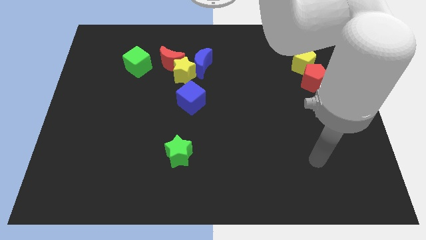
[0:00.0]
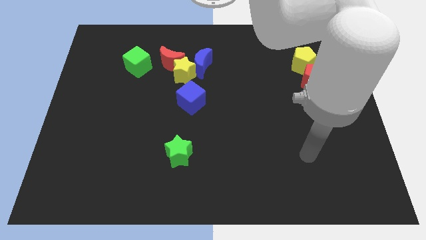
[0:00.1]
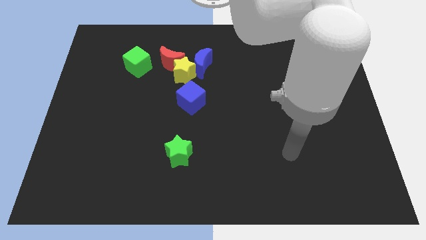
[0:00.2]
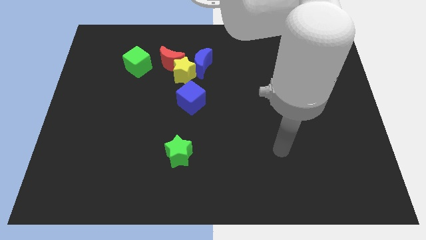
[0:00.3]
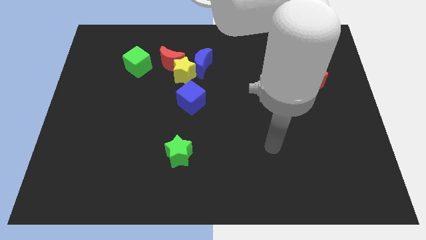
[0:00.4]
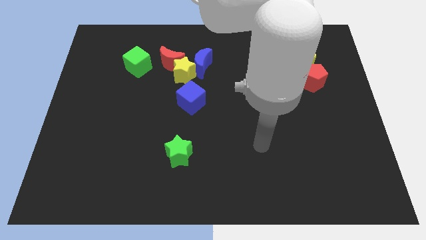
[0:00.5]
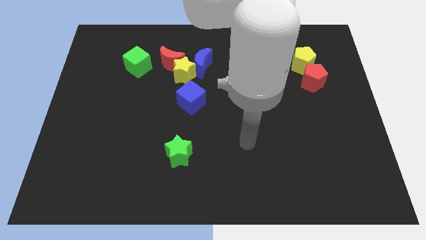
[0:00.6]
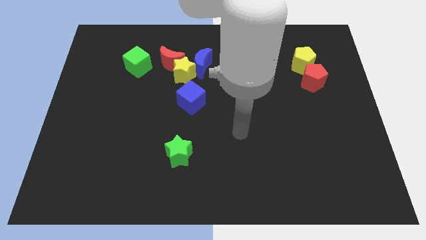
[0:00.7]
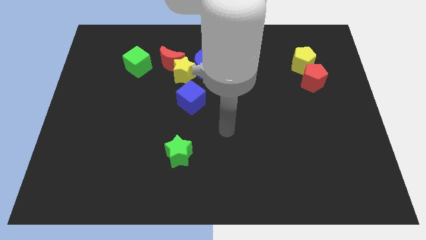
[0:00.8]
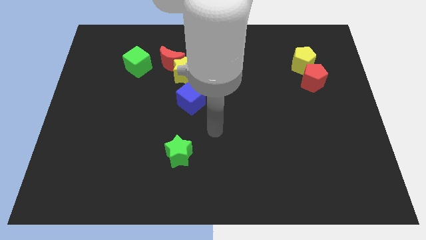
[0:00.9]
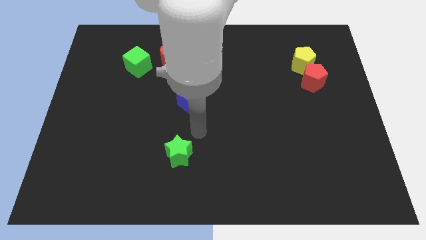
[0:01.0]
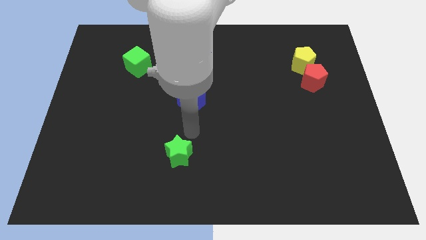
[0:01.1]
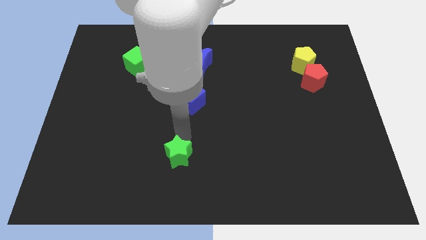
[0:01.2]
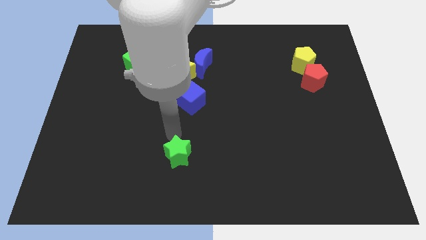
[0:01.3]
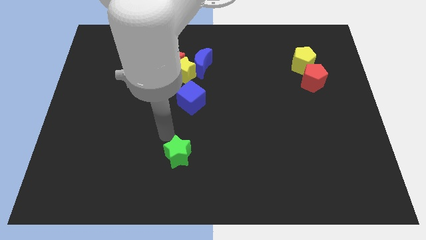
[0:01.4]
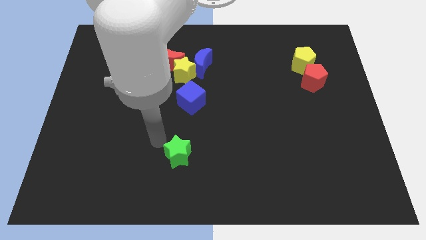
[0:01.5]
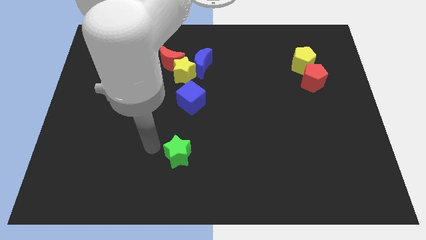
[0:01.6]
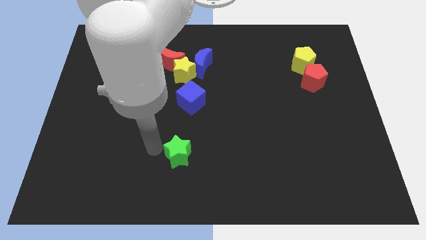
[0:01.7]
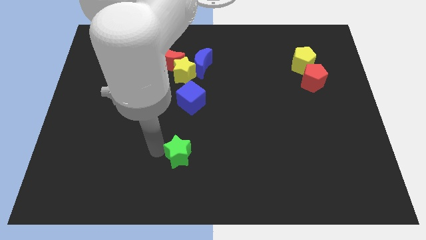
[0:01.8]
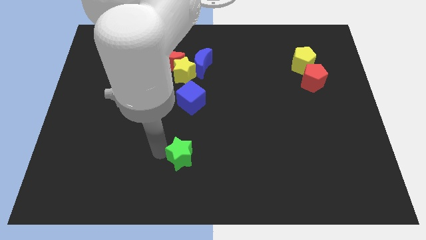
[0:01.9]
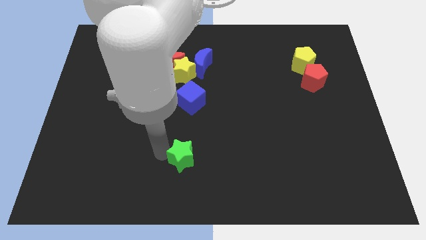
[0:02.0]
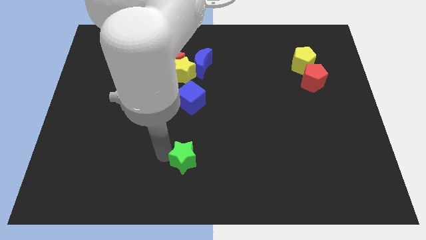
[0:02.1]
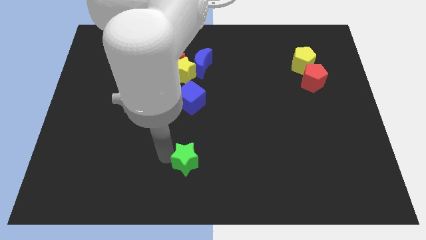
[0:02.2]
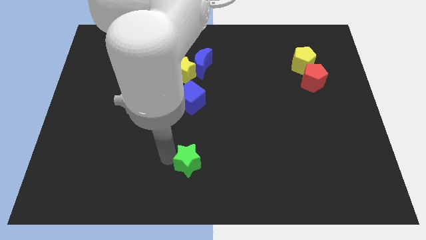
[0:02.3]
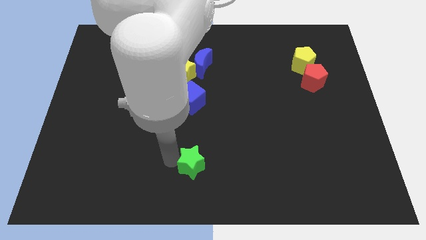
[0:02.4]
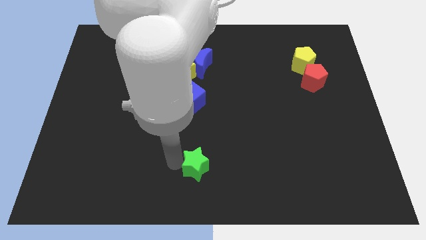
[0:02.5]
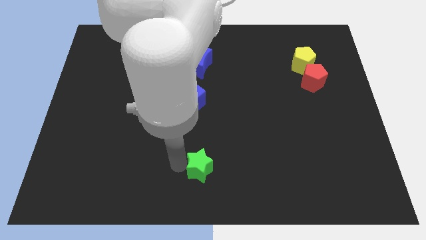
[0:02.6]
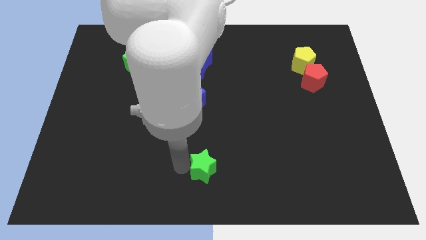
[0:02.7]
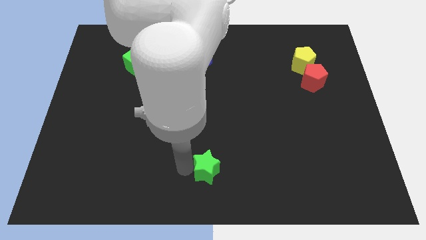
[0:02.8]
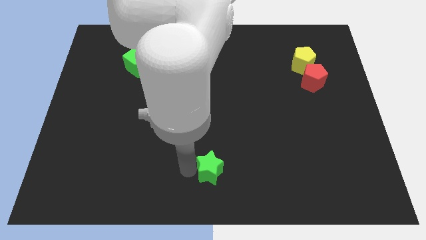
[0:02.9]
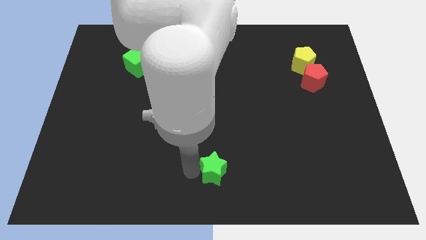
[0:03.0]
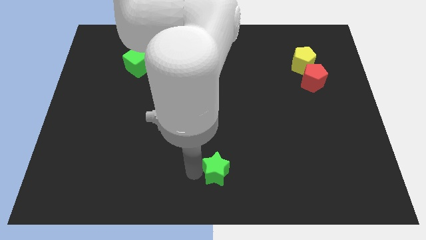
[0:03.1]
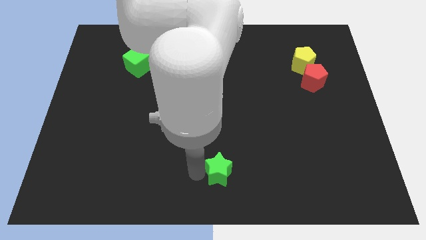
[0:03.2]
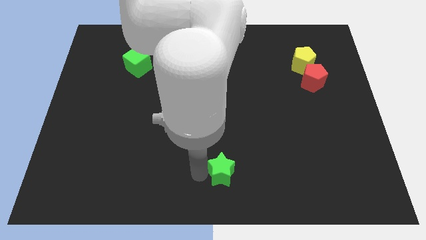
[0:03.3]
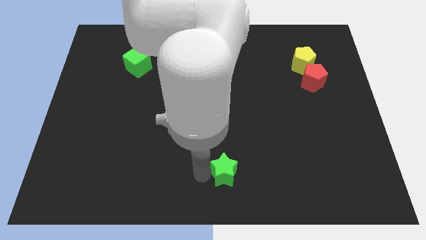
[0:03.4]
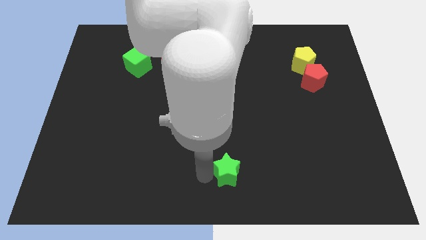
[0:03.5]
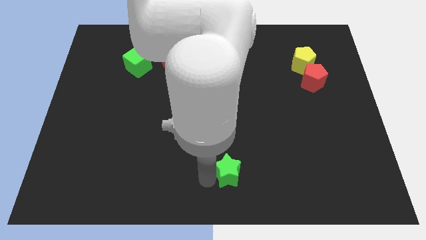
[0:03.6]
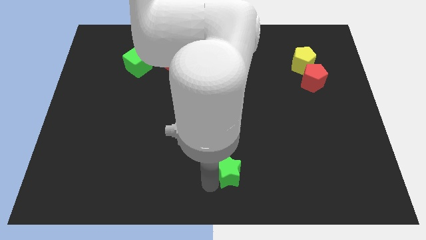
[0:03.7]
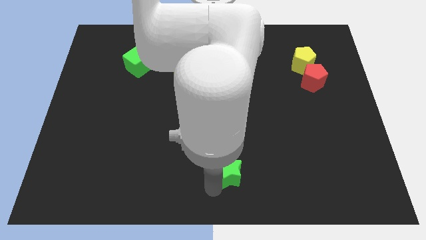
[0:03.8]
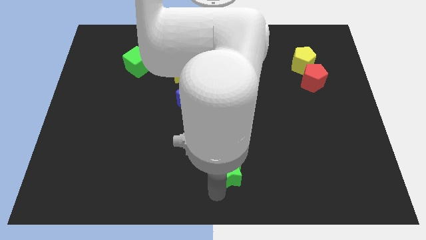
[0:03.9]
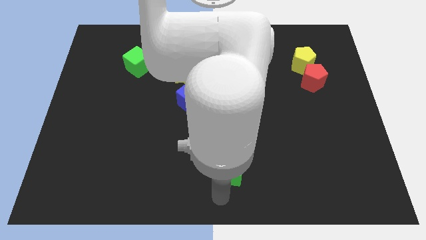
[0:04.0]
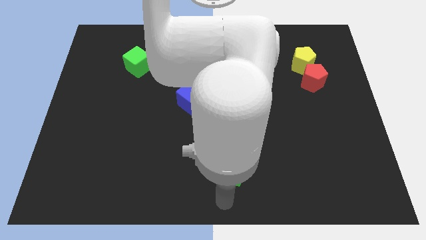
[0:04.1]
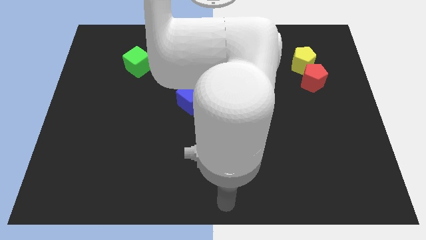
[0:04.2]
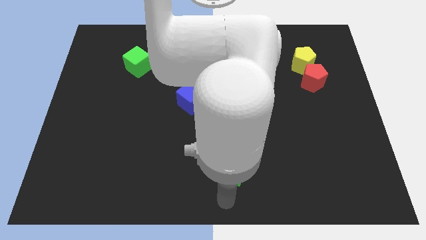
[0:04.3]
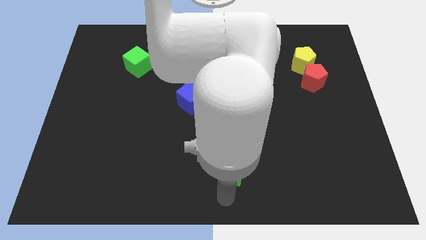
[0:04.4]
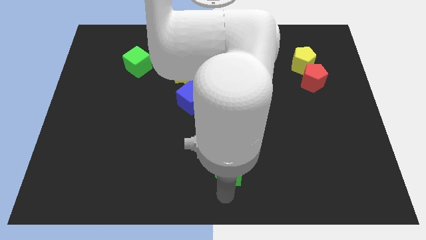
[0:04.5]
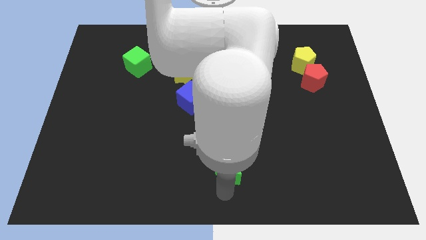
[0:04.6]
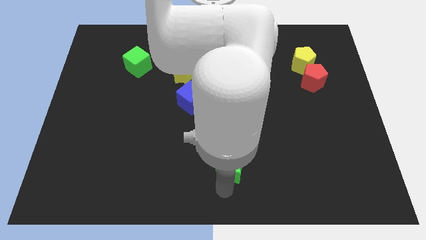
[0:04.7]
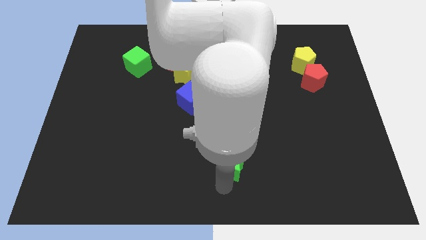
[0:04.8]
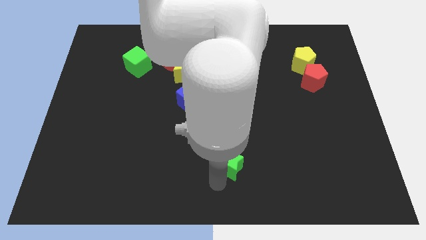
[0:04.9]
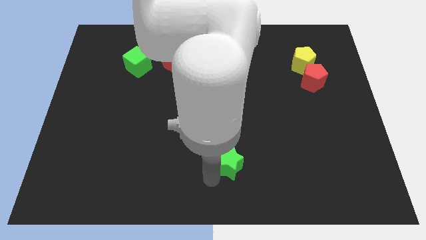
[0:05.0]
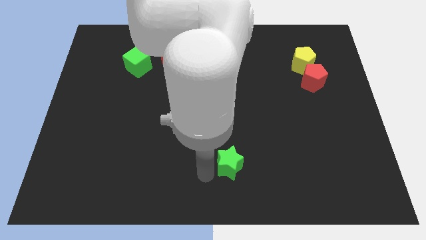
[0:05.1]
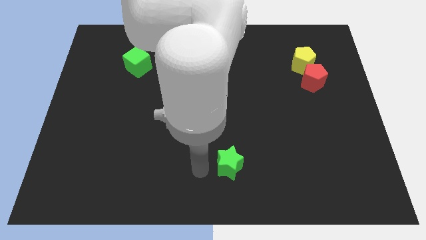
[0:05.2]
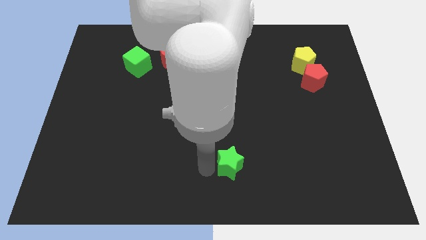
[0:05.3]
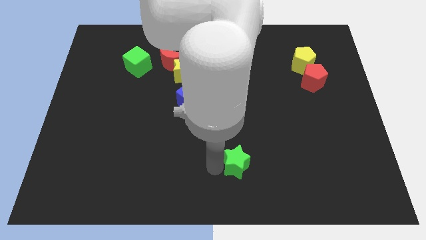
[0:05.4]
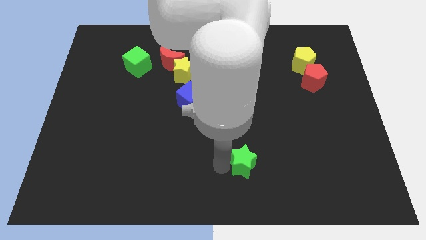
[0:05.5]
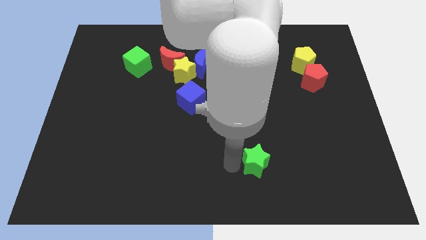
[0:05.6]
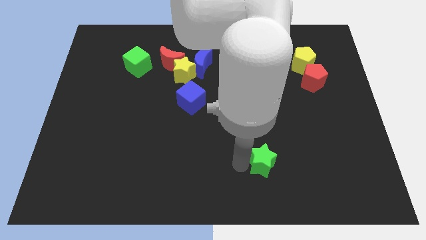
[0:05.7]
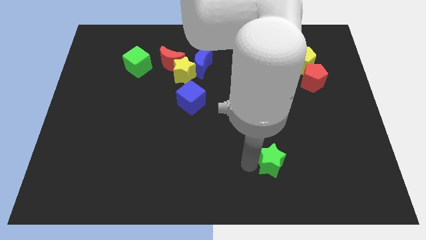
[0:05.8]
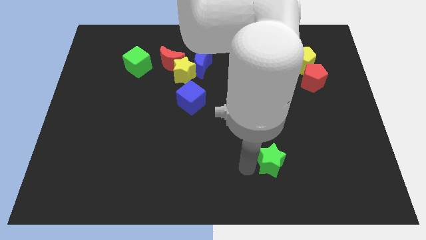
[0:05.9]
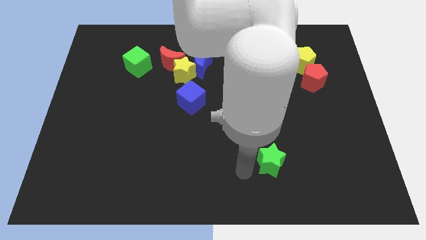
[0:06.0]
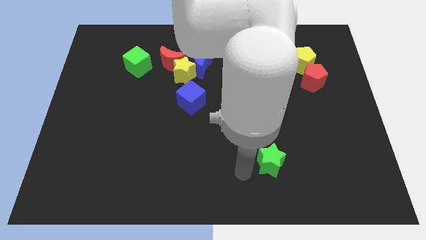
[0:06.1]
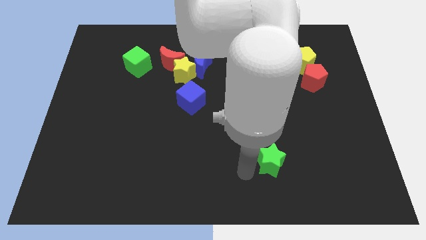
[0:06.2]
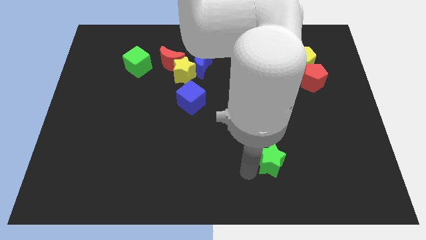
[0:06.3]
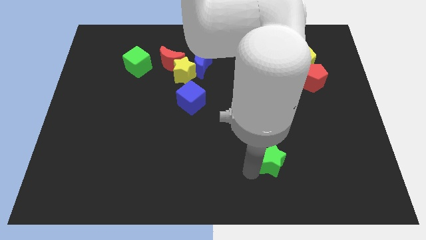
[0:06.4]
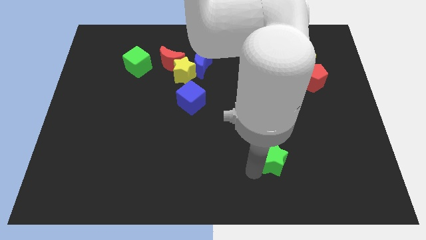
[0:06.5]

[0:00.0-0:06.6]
move the green star to the right

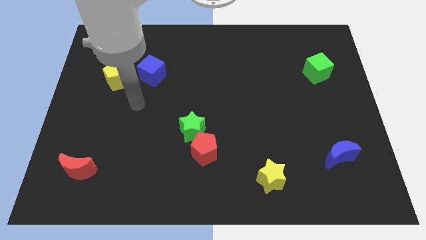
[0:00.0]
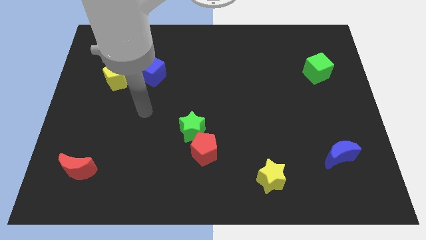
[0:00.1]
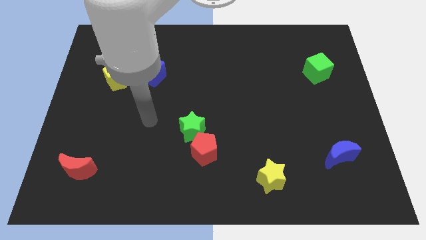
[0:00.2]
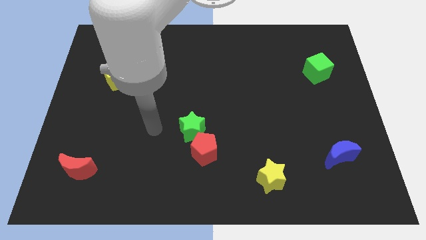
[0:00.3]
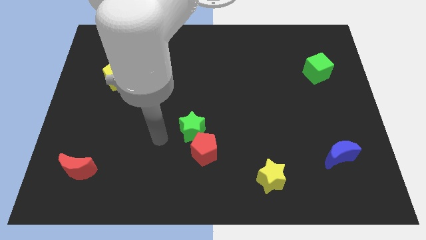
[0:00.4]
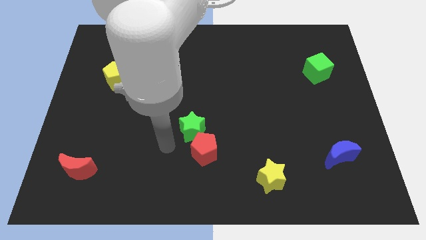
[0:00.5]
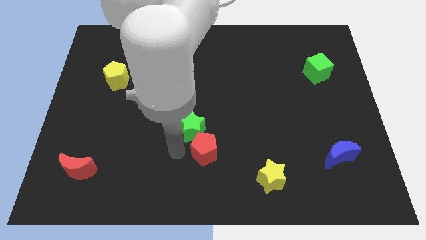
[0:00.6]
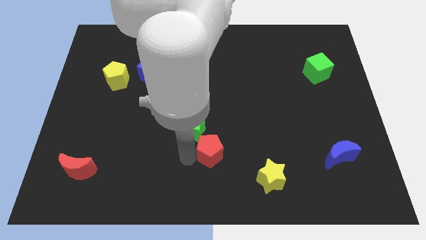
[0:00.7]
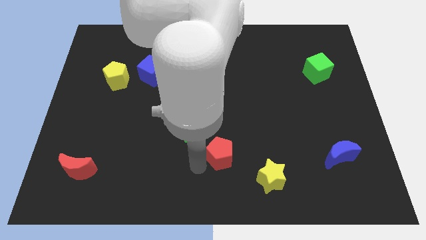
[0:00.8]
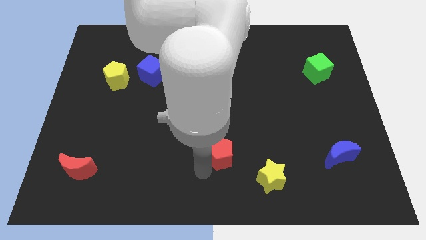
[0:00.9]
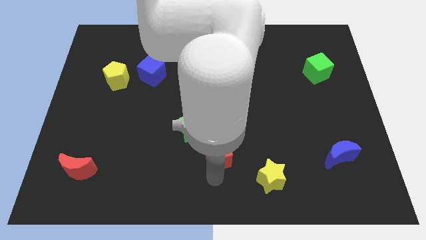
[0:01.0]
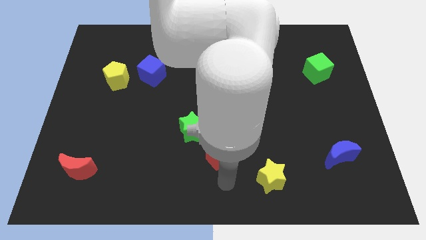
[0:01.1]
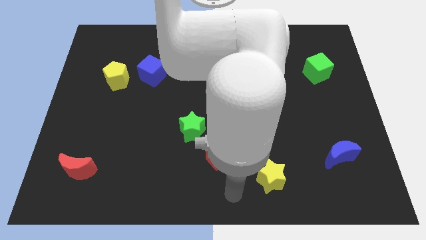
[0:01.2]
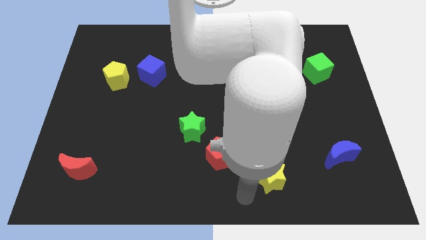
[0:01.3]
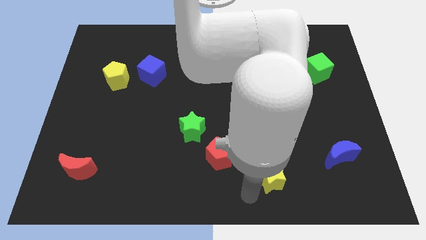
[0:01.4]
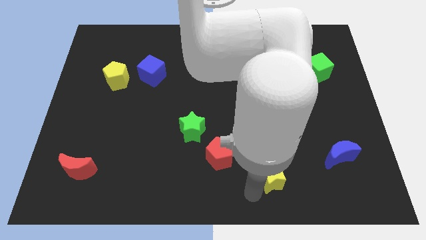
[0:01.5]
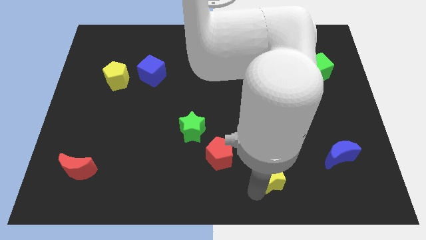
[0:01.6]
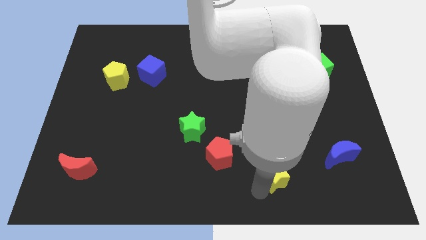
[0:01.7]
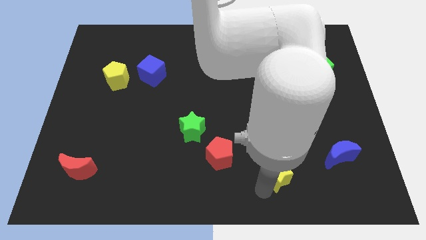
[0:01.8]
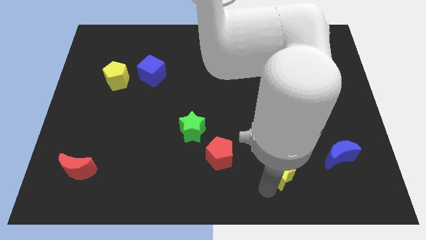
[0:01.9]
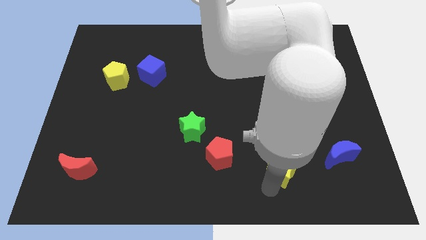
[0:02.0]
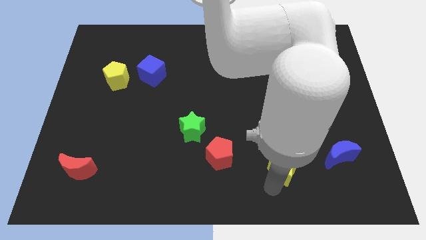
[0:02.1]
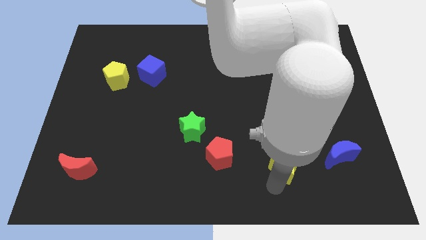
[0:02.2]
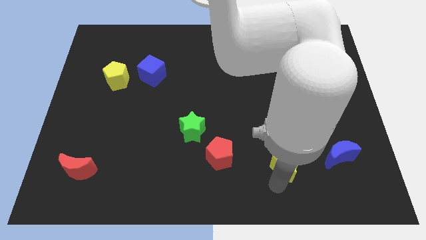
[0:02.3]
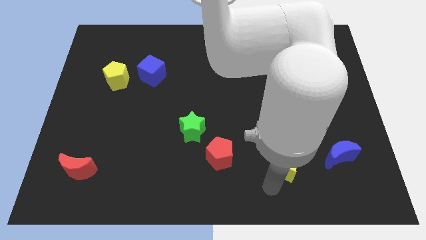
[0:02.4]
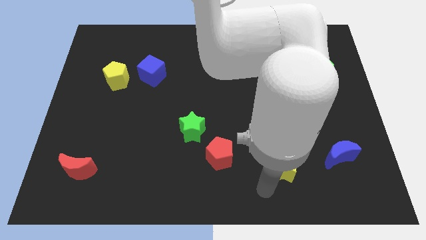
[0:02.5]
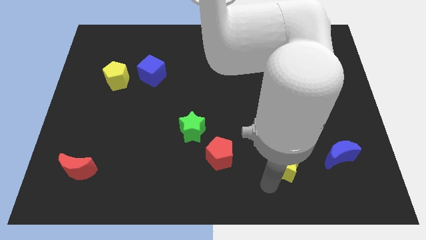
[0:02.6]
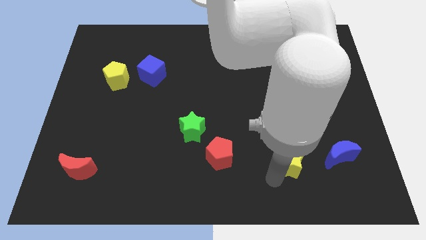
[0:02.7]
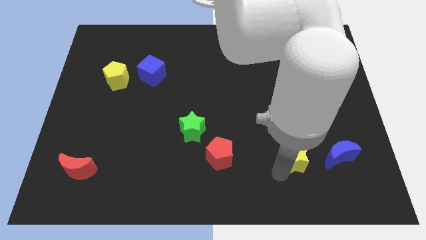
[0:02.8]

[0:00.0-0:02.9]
slightly move the yellow star diagonally upwards and right
